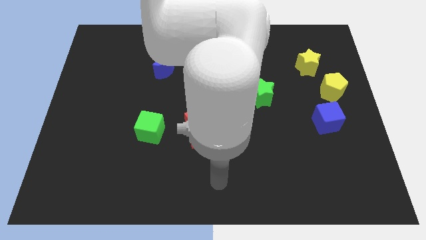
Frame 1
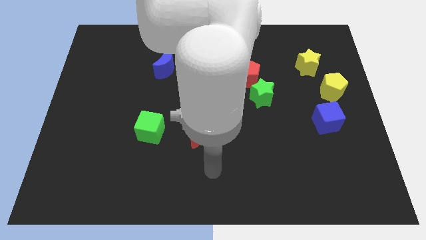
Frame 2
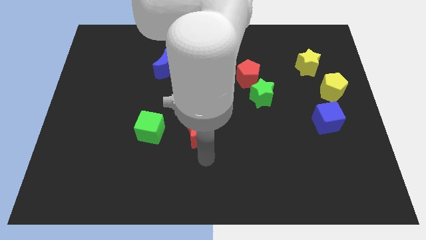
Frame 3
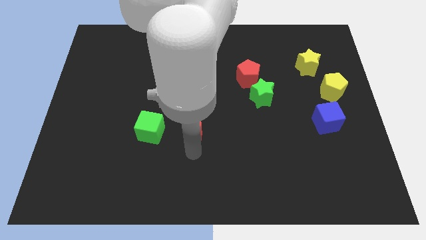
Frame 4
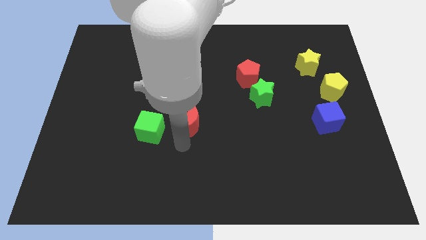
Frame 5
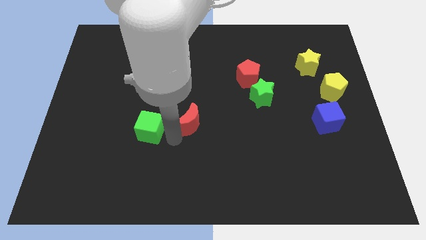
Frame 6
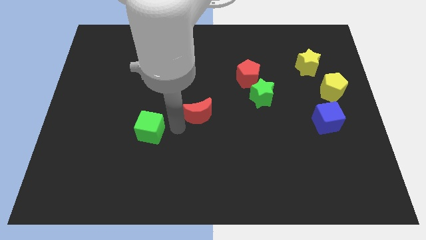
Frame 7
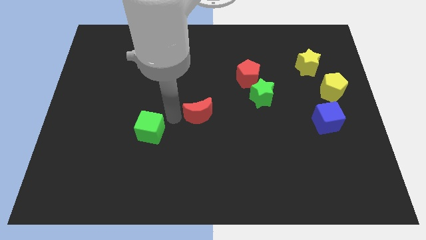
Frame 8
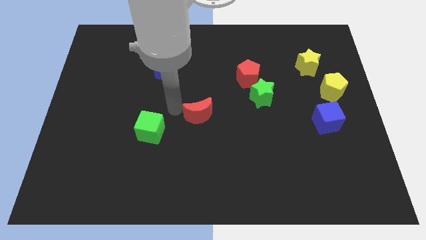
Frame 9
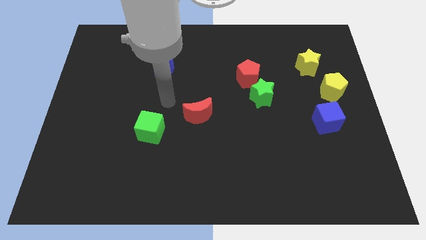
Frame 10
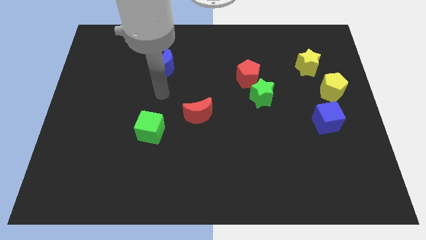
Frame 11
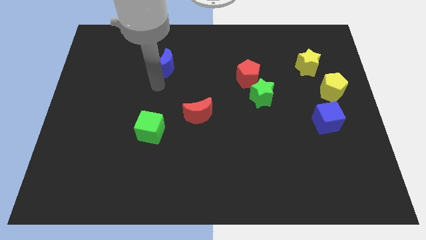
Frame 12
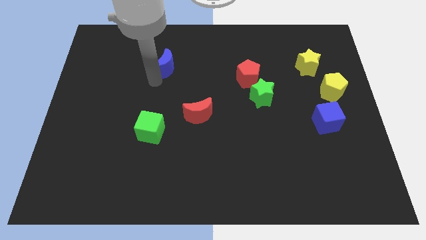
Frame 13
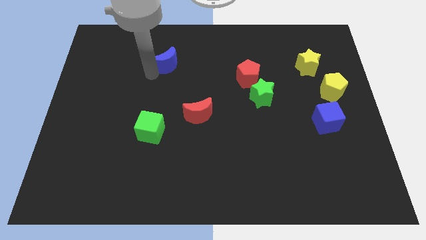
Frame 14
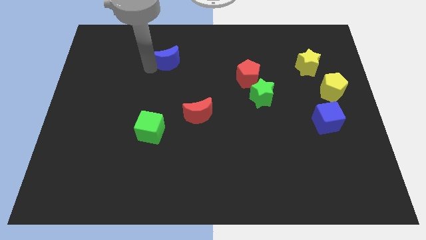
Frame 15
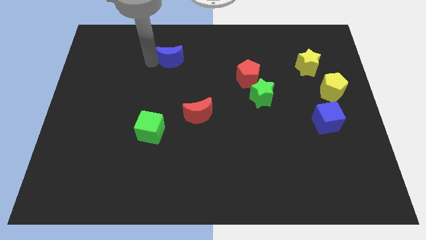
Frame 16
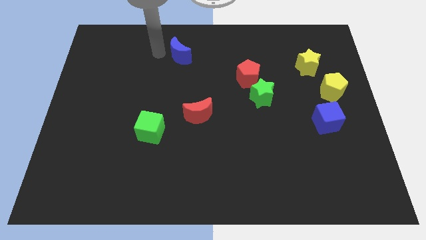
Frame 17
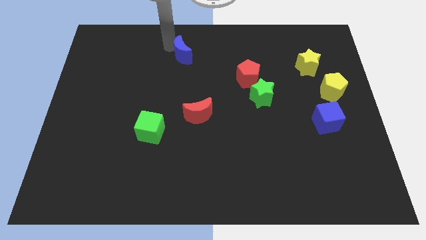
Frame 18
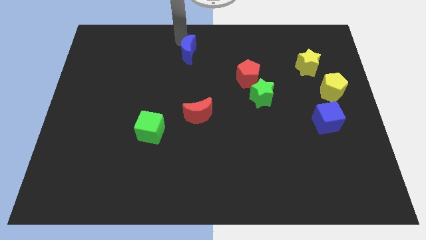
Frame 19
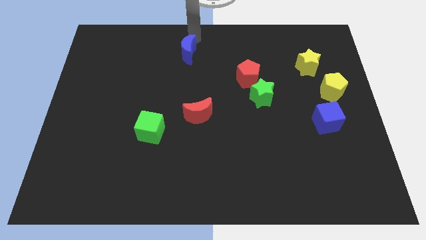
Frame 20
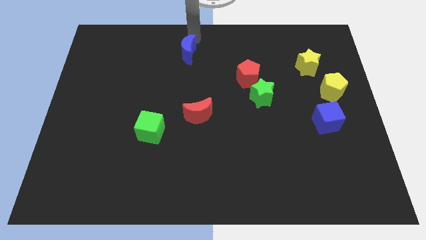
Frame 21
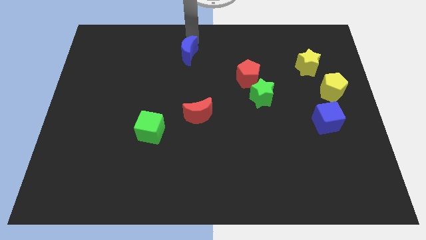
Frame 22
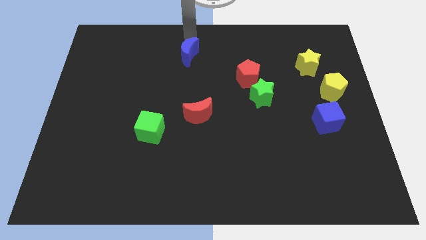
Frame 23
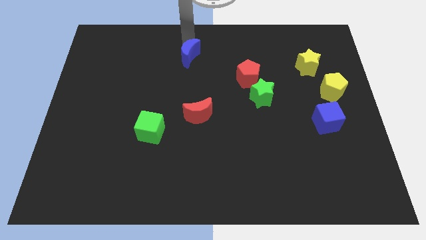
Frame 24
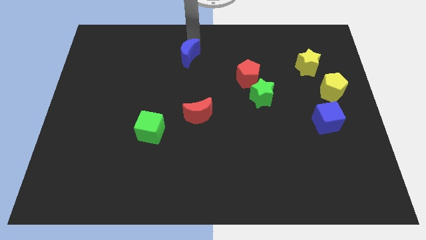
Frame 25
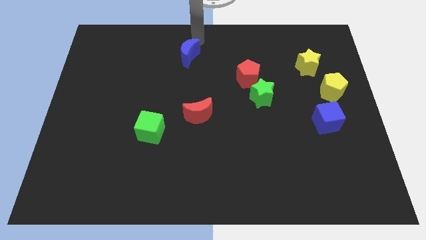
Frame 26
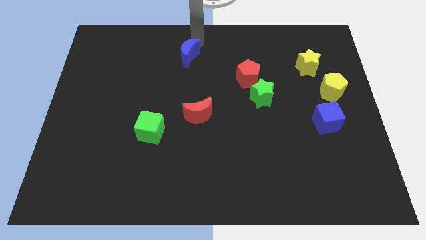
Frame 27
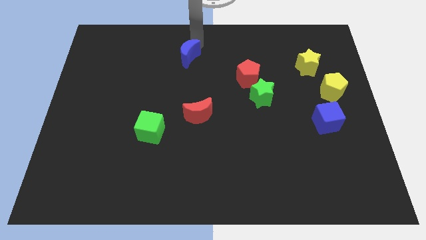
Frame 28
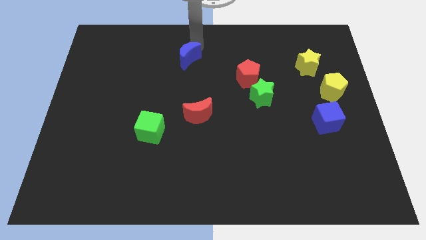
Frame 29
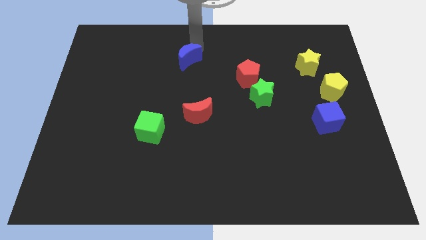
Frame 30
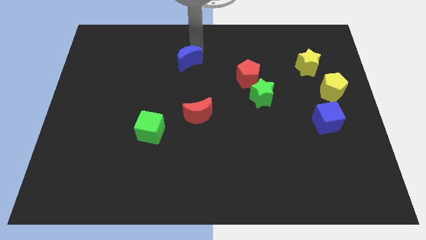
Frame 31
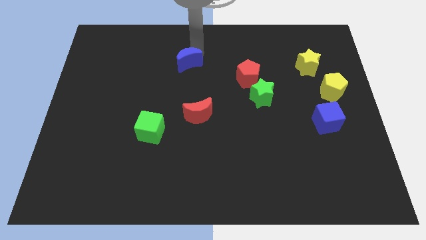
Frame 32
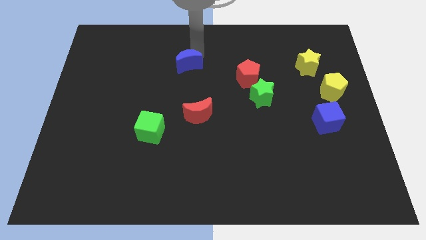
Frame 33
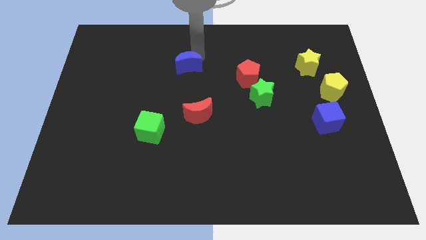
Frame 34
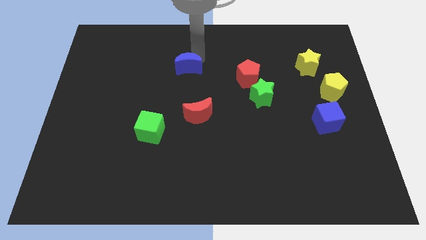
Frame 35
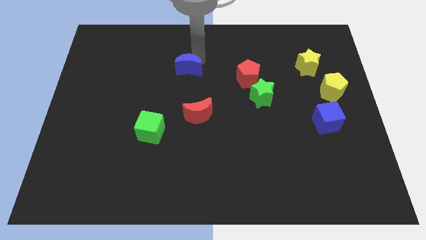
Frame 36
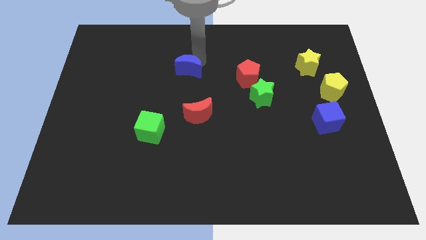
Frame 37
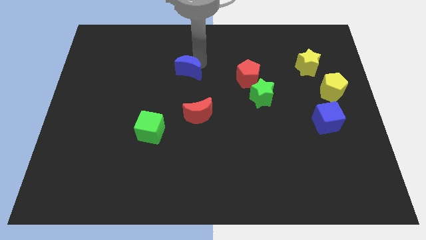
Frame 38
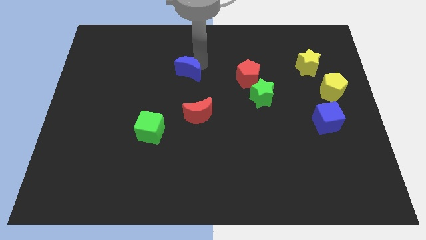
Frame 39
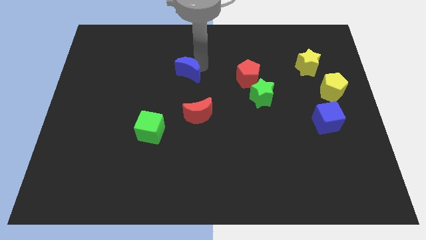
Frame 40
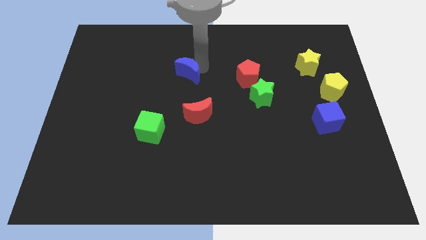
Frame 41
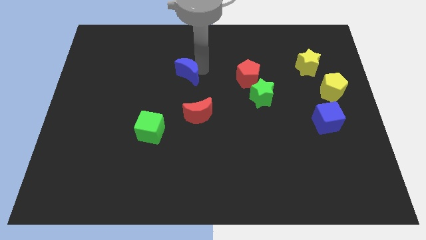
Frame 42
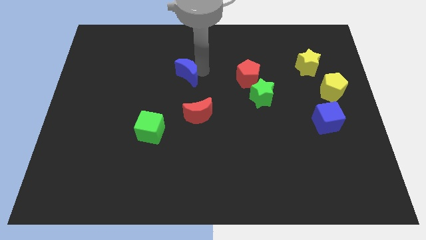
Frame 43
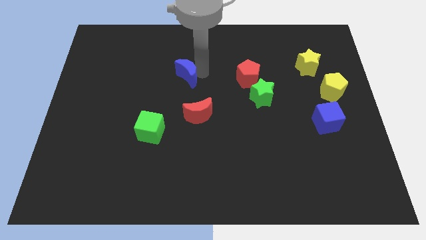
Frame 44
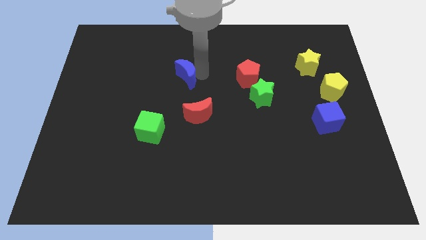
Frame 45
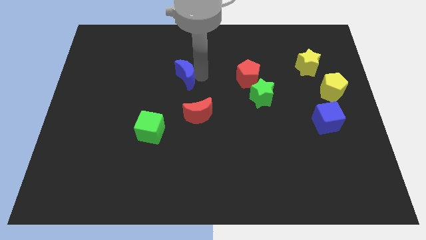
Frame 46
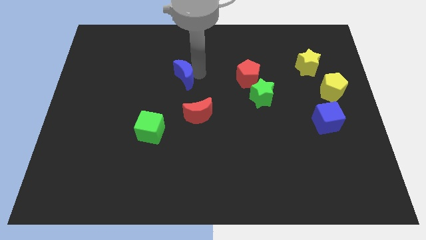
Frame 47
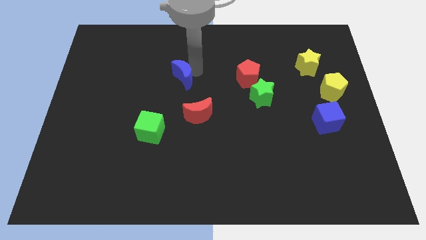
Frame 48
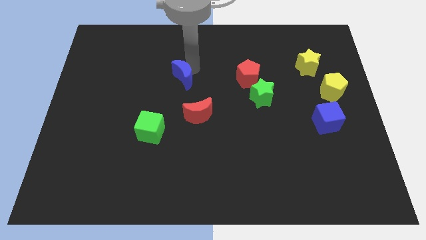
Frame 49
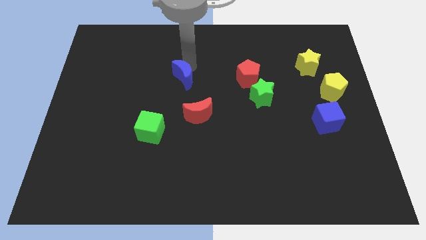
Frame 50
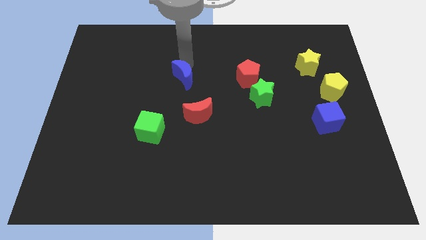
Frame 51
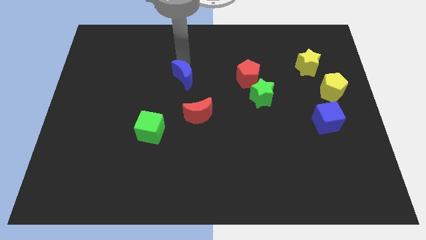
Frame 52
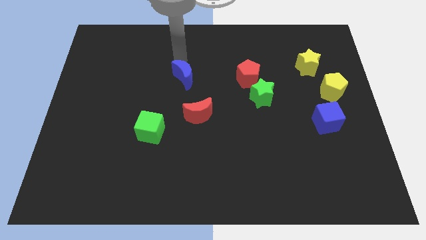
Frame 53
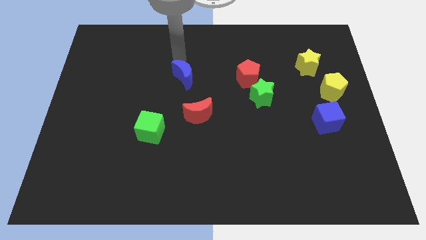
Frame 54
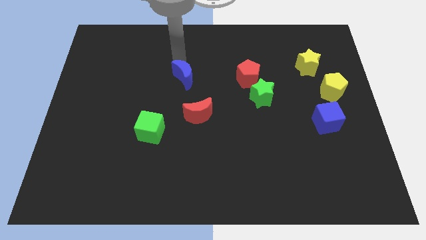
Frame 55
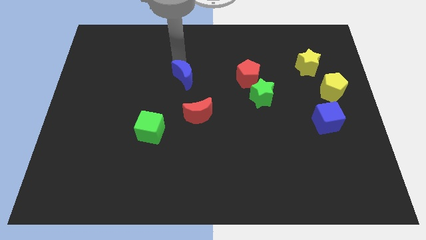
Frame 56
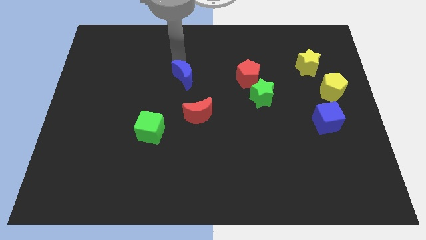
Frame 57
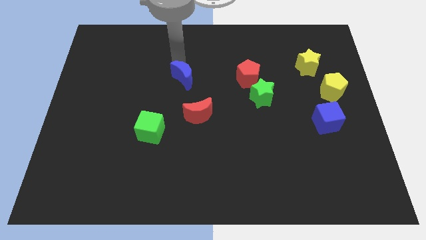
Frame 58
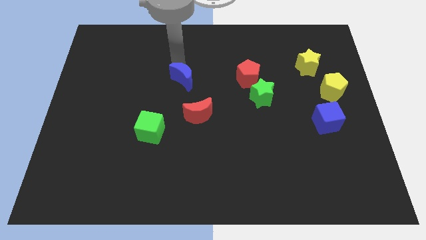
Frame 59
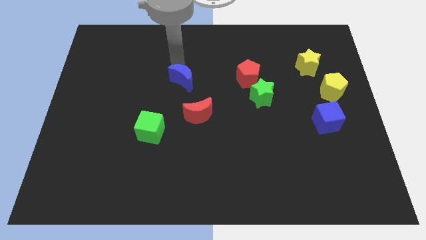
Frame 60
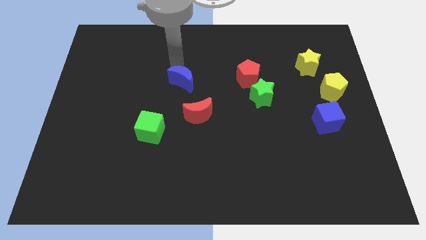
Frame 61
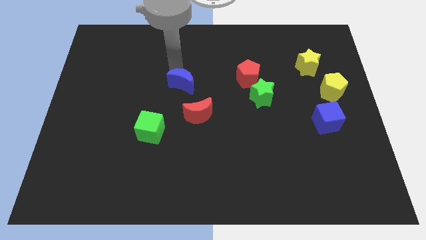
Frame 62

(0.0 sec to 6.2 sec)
push the blue moon down and right diagonally a little bit

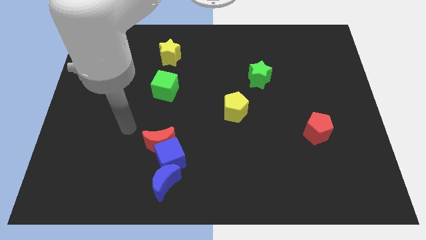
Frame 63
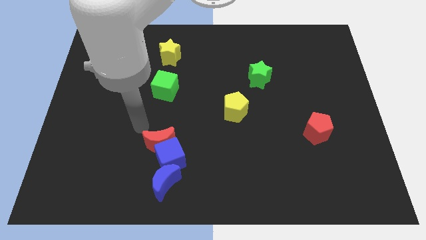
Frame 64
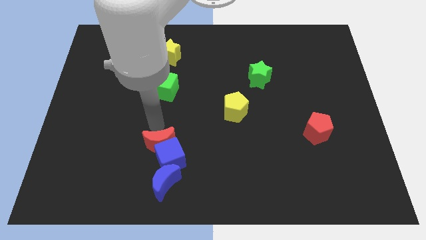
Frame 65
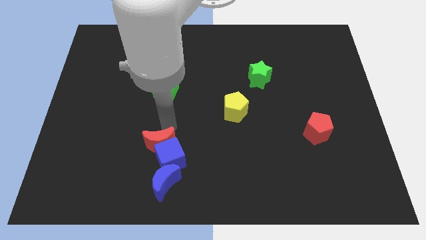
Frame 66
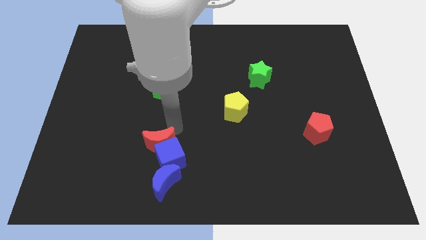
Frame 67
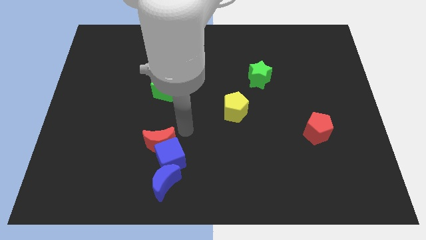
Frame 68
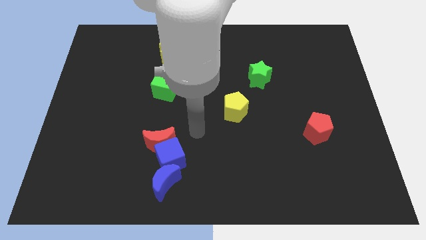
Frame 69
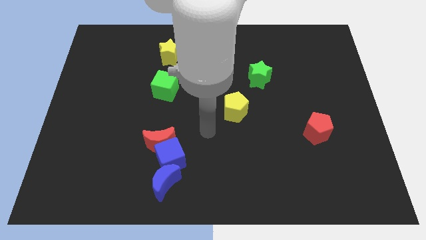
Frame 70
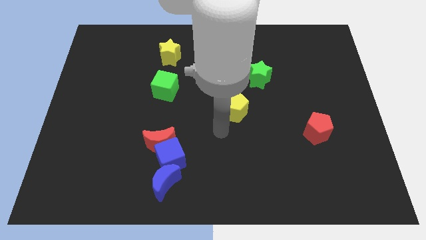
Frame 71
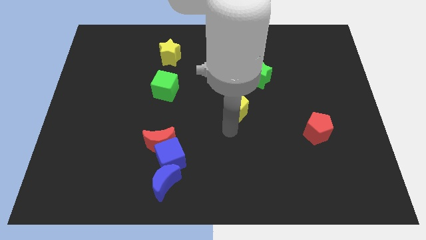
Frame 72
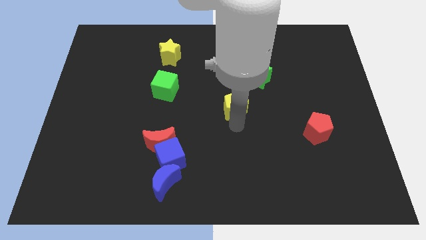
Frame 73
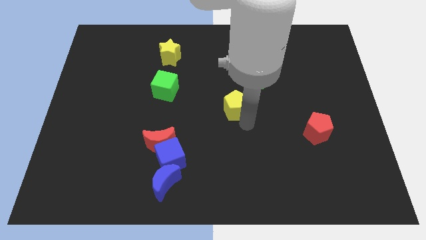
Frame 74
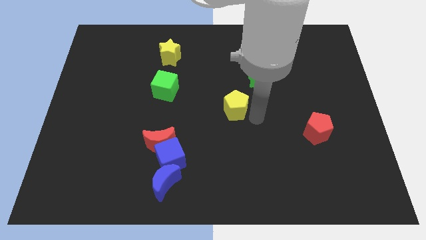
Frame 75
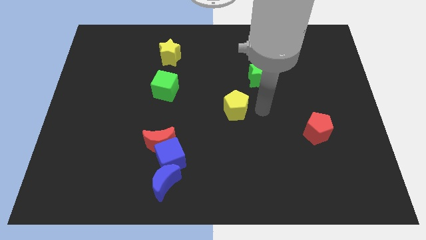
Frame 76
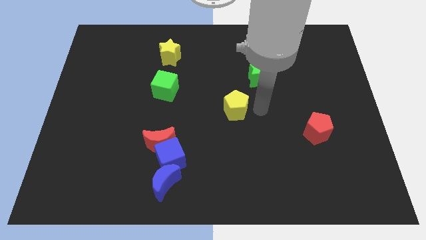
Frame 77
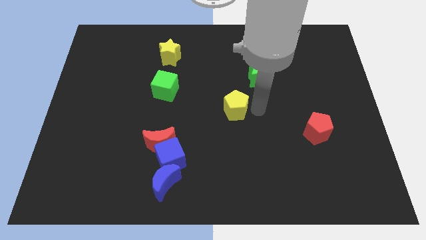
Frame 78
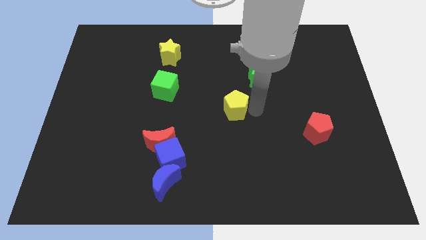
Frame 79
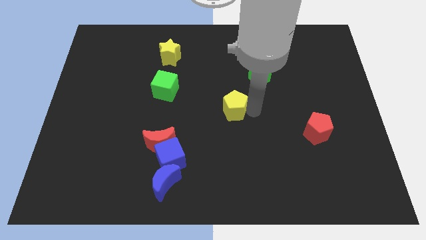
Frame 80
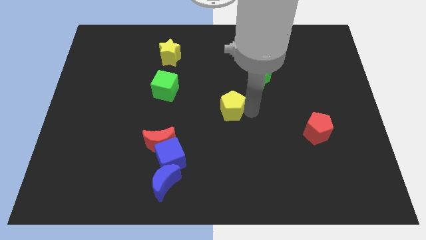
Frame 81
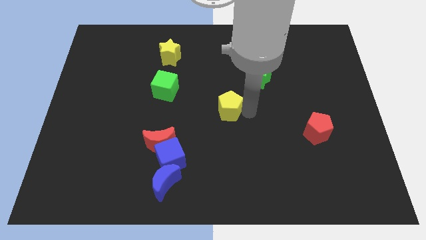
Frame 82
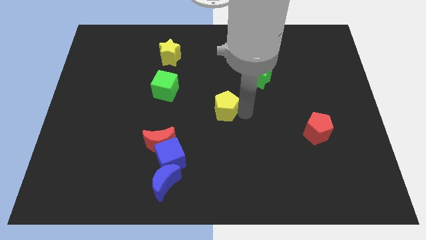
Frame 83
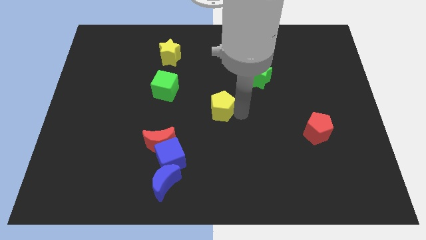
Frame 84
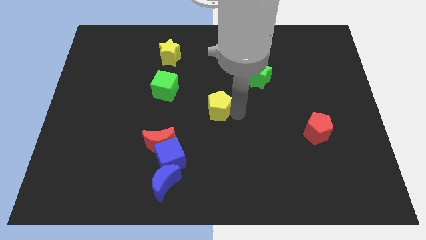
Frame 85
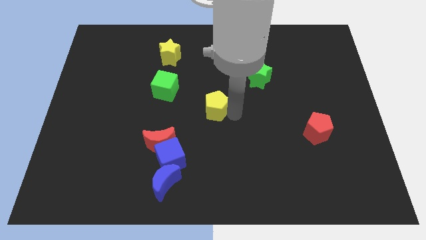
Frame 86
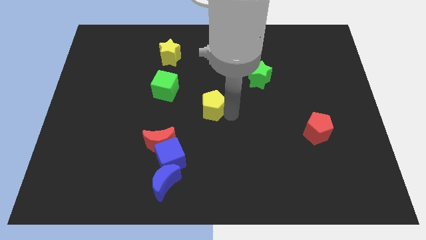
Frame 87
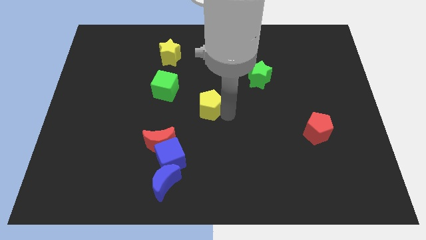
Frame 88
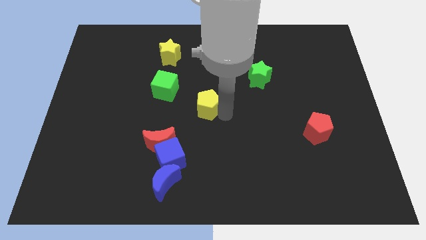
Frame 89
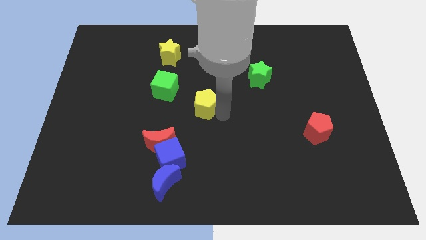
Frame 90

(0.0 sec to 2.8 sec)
slide the yellow pentagon to the left a little bit
